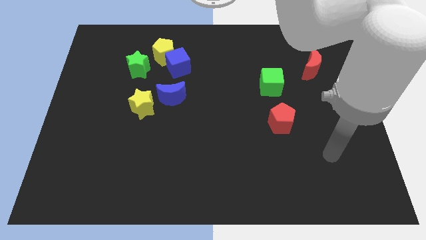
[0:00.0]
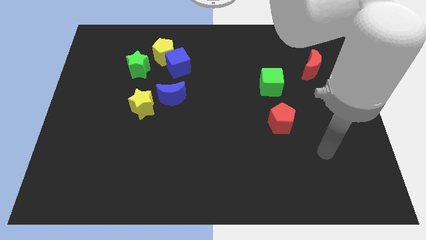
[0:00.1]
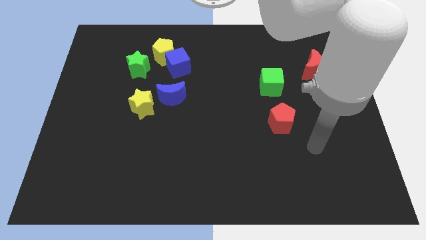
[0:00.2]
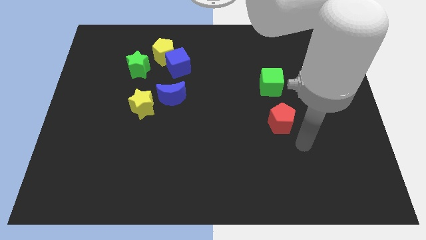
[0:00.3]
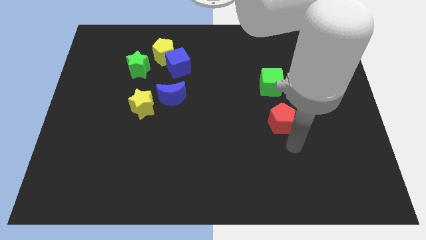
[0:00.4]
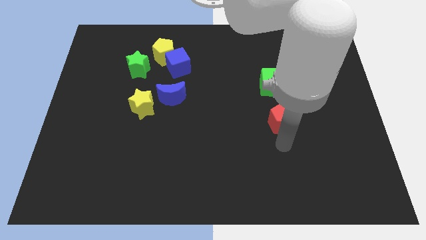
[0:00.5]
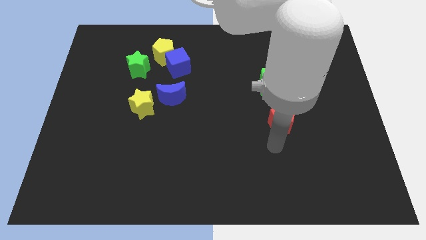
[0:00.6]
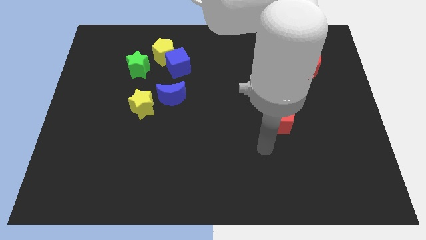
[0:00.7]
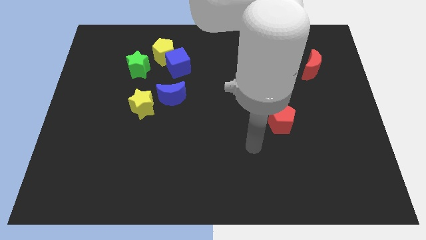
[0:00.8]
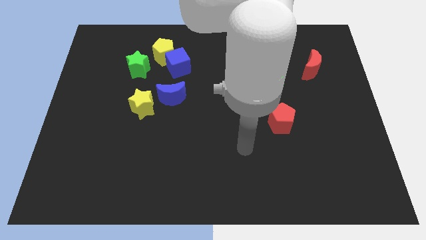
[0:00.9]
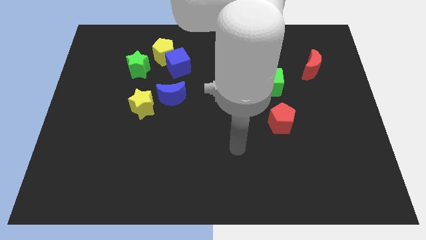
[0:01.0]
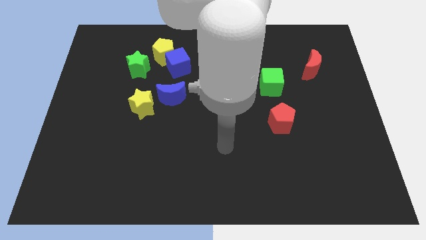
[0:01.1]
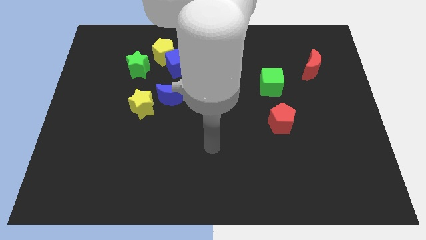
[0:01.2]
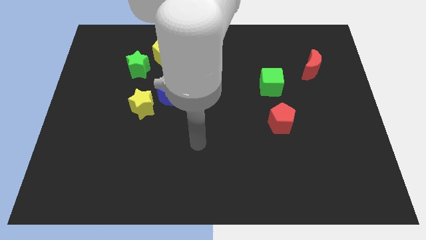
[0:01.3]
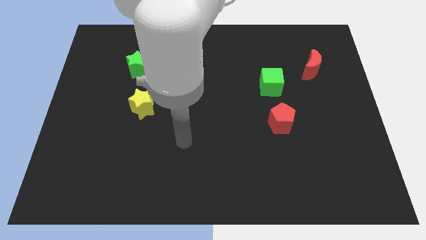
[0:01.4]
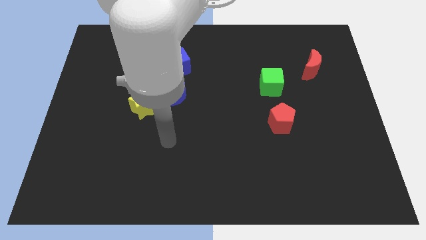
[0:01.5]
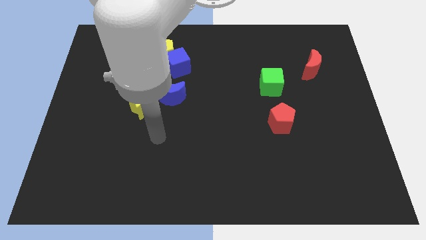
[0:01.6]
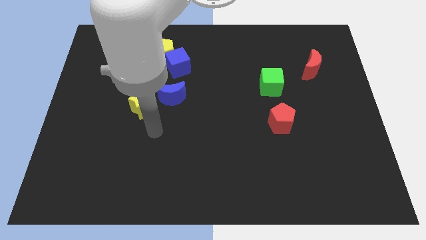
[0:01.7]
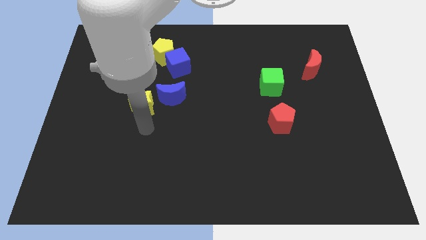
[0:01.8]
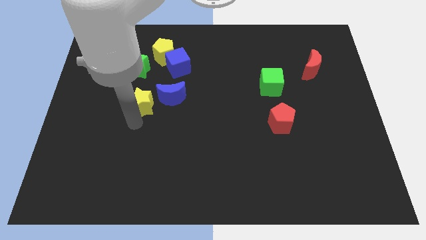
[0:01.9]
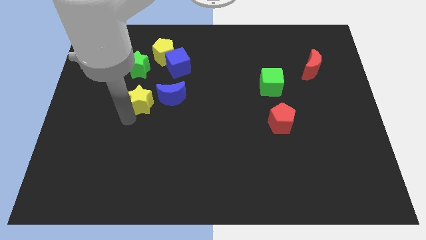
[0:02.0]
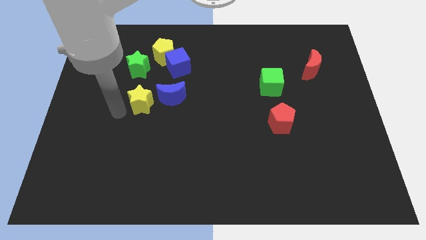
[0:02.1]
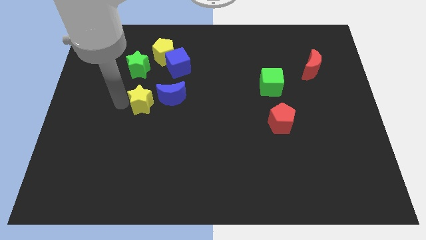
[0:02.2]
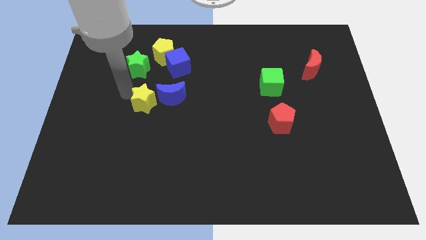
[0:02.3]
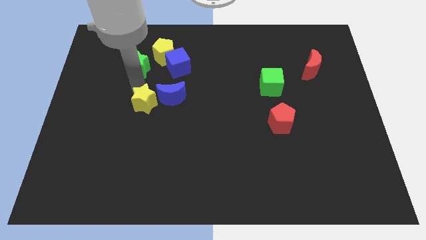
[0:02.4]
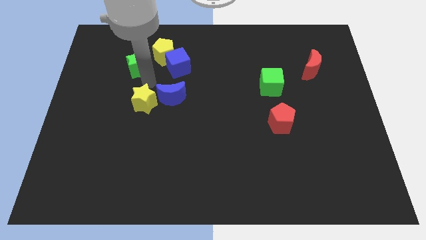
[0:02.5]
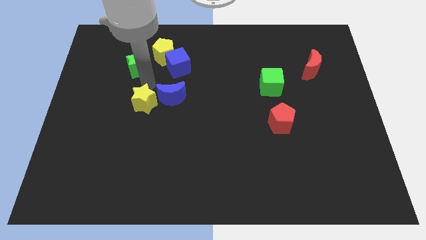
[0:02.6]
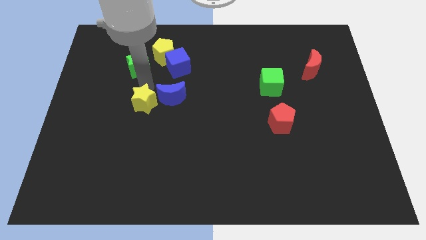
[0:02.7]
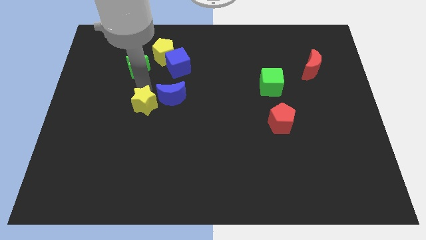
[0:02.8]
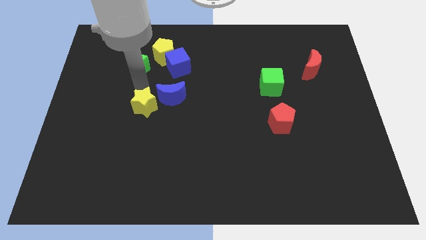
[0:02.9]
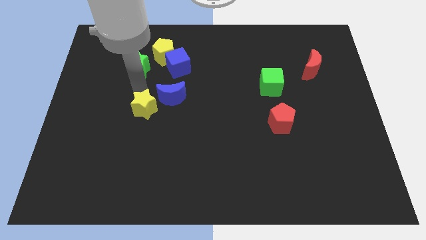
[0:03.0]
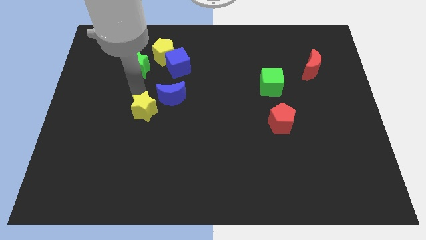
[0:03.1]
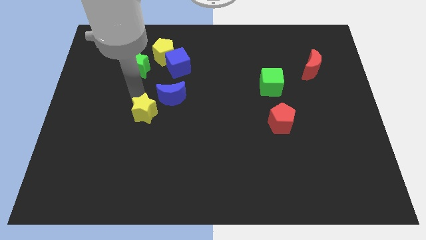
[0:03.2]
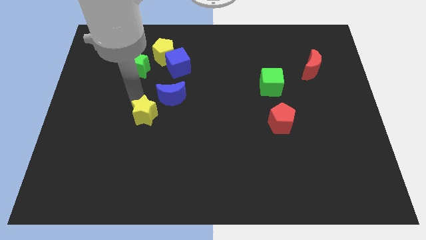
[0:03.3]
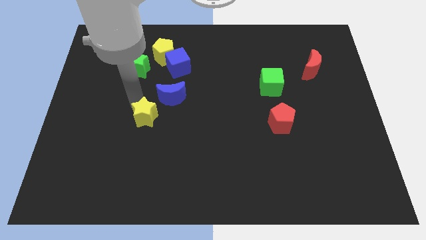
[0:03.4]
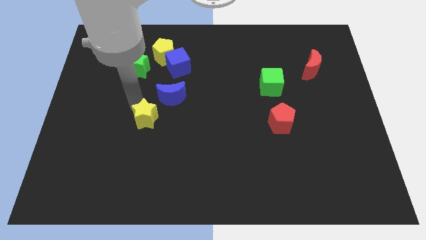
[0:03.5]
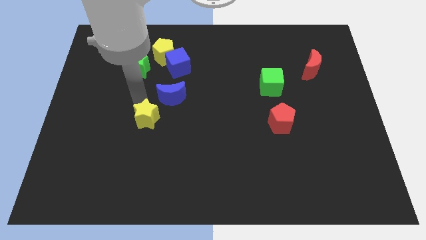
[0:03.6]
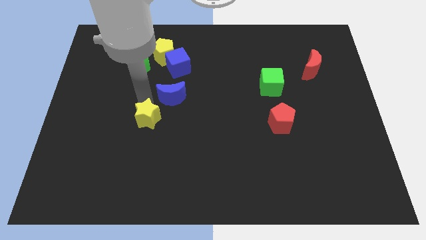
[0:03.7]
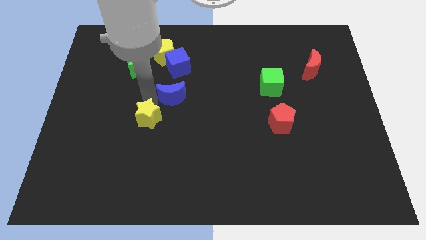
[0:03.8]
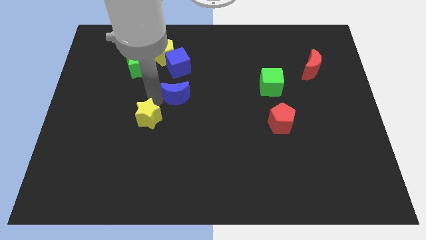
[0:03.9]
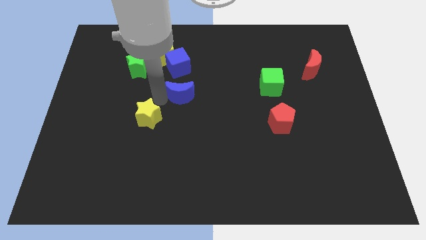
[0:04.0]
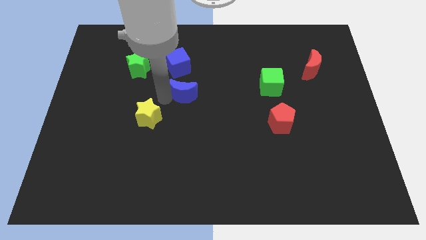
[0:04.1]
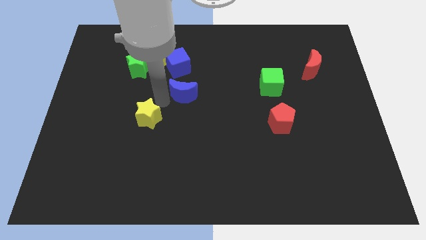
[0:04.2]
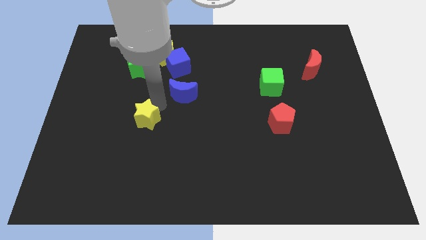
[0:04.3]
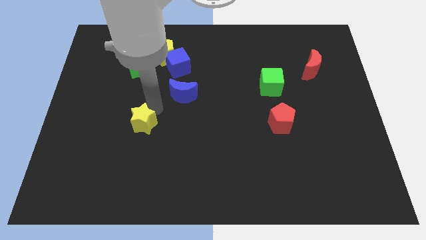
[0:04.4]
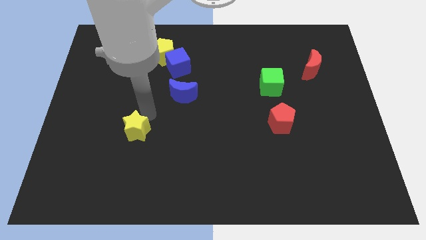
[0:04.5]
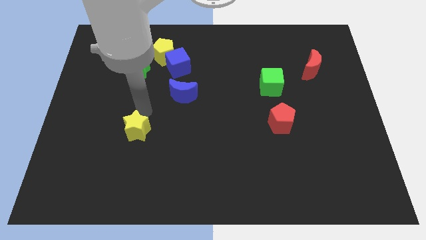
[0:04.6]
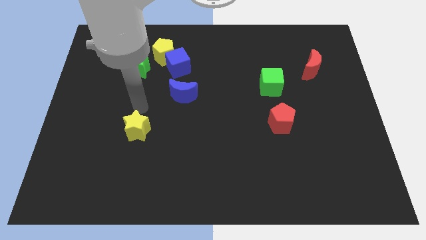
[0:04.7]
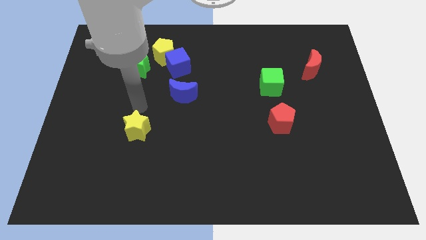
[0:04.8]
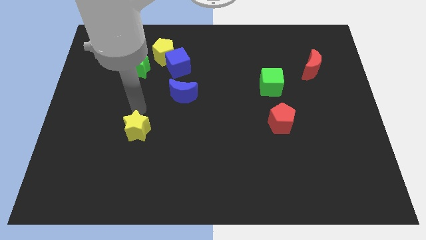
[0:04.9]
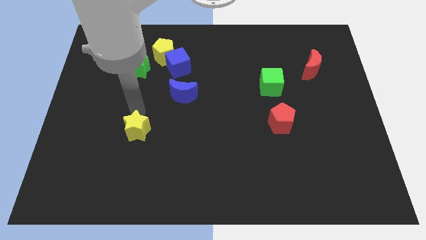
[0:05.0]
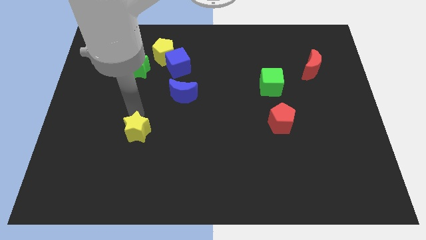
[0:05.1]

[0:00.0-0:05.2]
slightly push the yellow star downwards

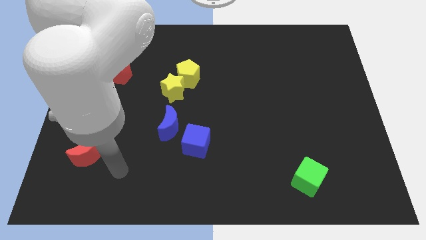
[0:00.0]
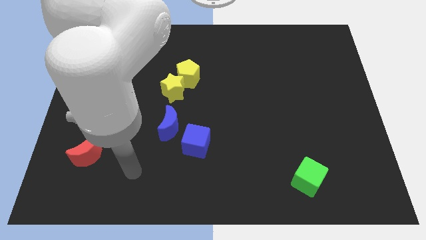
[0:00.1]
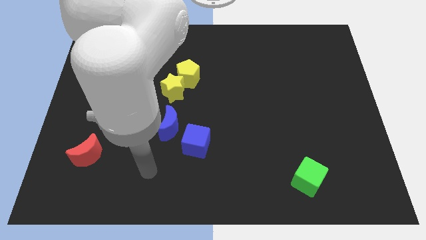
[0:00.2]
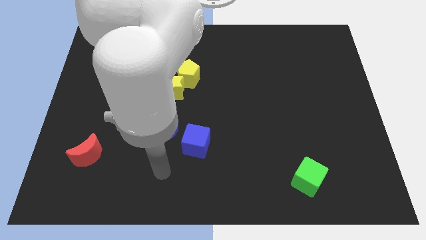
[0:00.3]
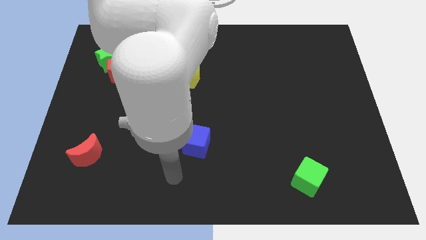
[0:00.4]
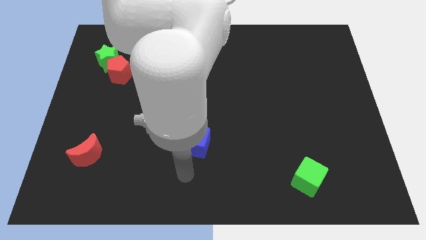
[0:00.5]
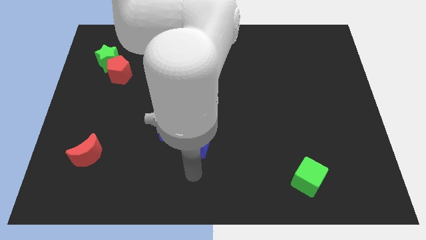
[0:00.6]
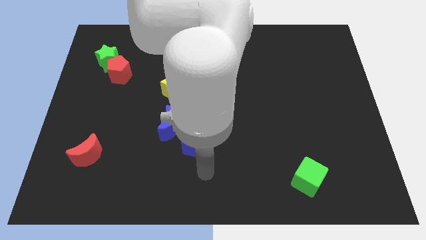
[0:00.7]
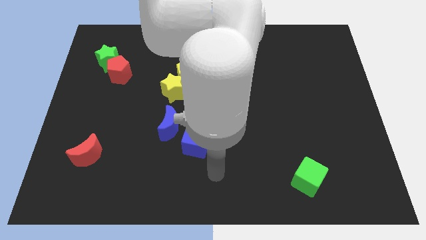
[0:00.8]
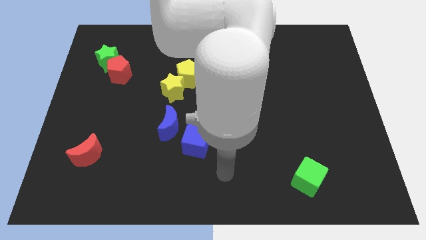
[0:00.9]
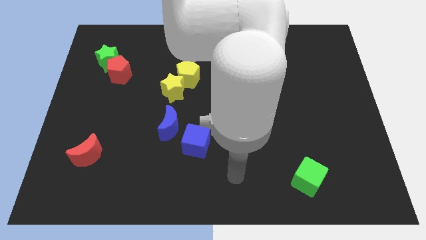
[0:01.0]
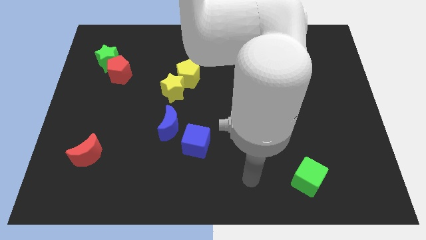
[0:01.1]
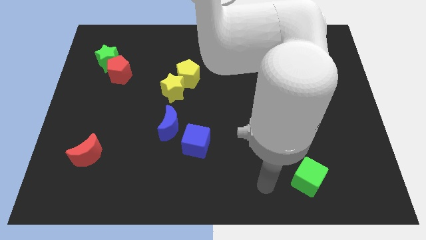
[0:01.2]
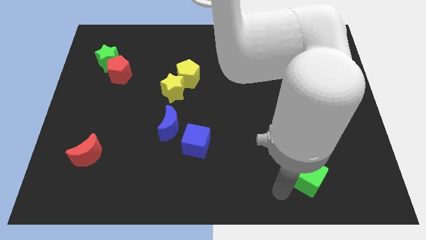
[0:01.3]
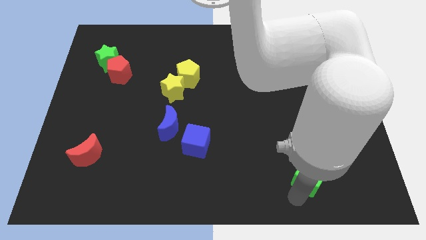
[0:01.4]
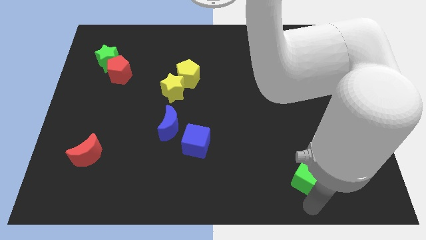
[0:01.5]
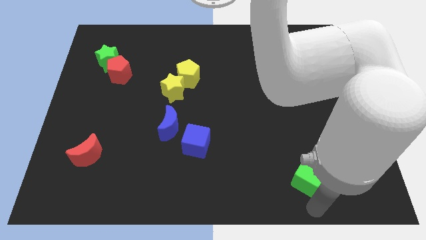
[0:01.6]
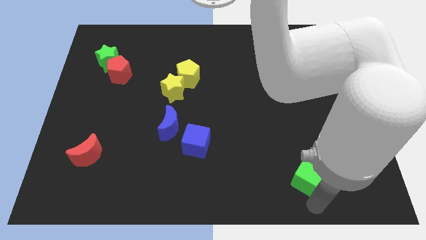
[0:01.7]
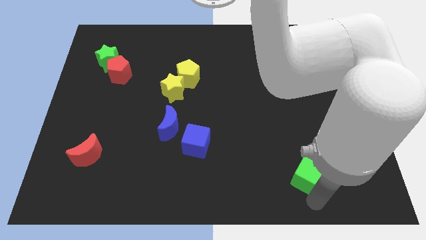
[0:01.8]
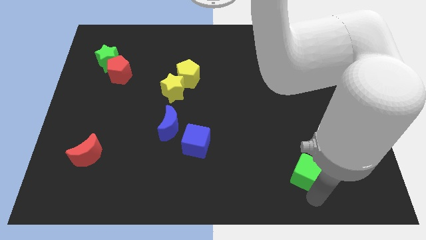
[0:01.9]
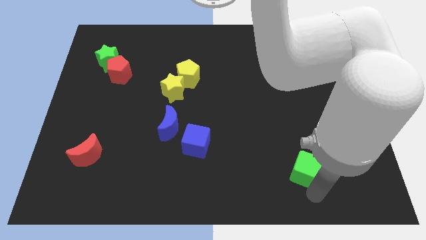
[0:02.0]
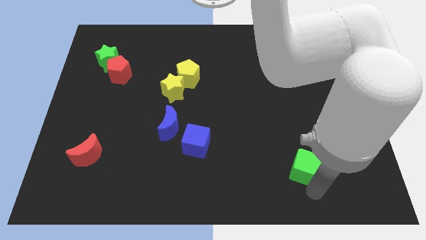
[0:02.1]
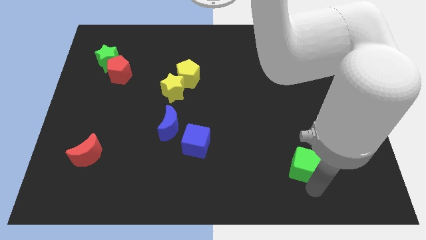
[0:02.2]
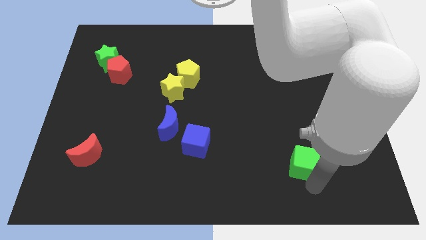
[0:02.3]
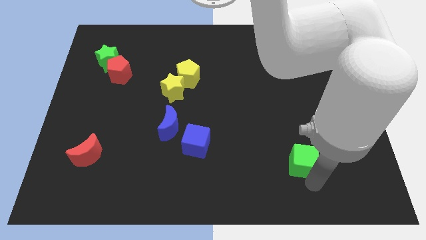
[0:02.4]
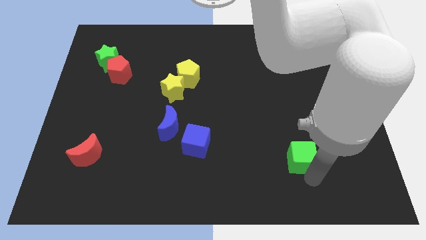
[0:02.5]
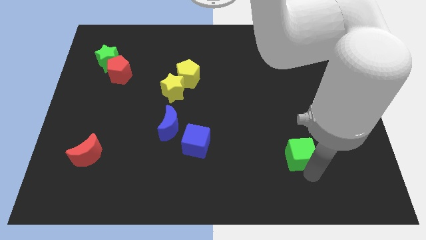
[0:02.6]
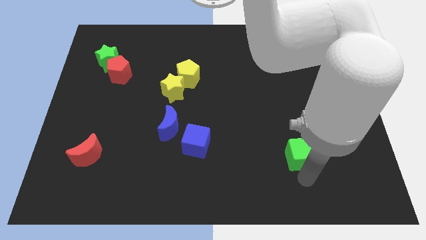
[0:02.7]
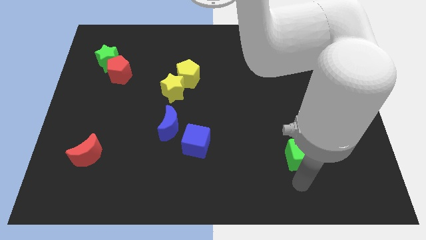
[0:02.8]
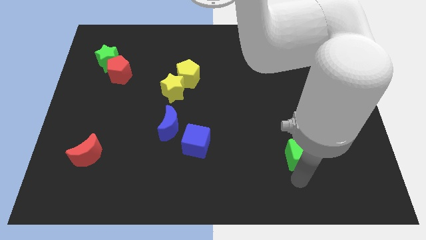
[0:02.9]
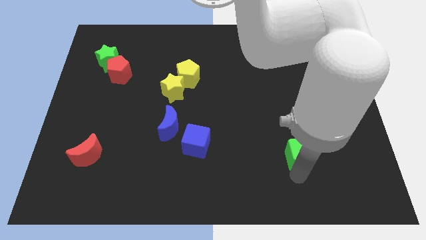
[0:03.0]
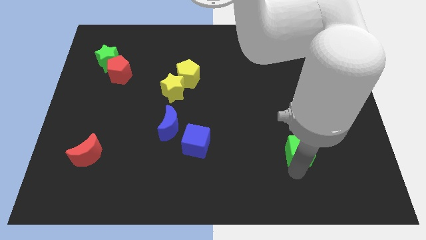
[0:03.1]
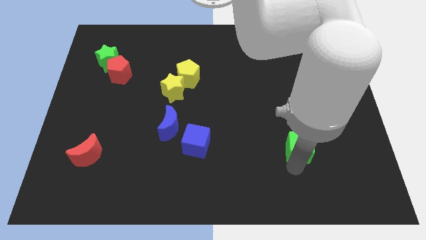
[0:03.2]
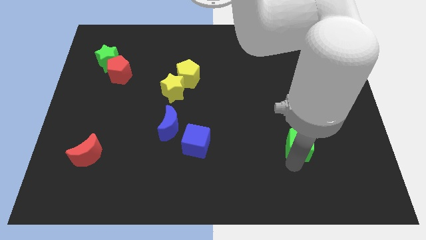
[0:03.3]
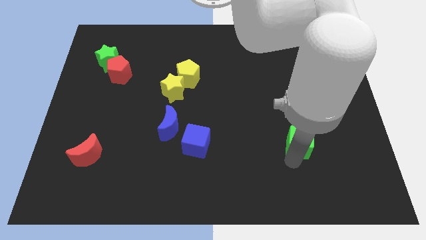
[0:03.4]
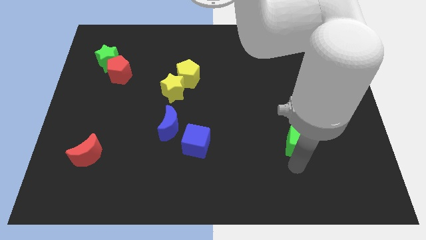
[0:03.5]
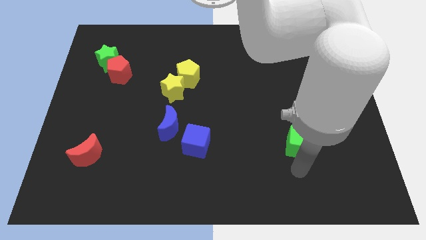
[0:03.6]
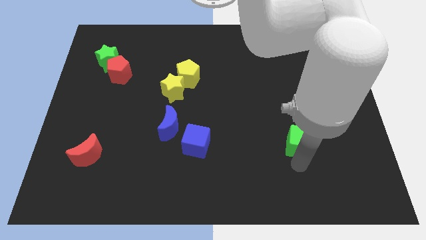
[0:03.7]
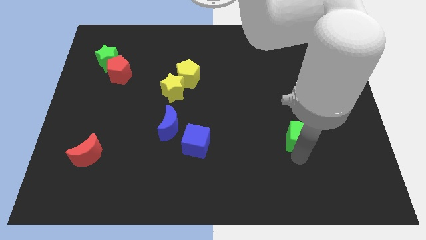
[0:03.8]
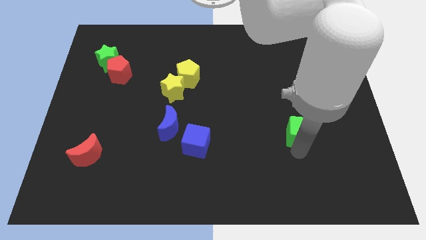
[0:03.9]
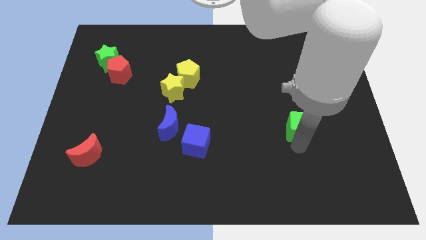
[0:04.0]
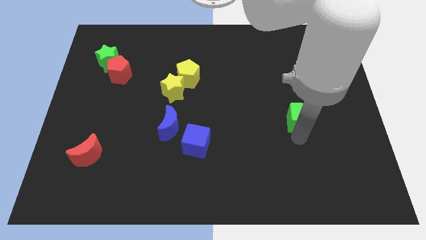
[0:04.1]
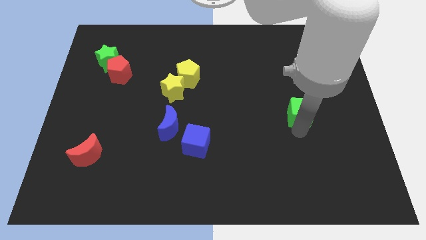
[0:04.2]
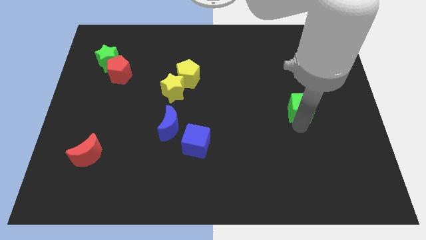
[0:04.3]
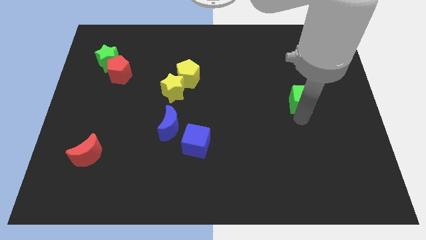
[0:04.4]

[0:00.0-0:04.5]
push the green cube upwards
